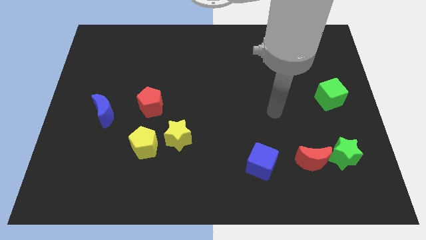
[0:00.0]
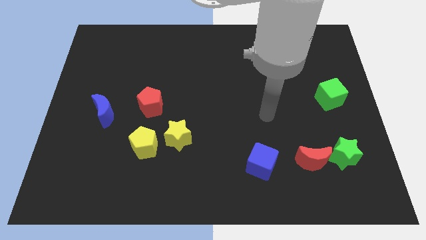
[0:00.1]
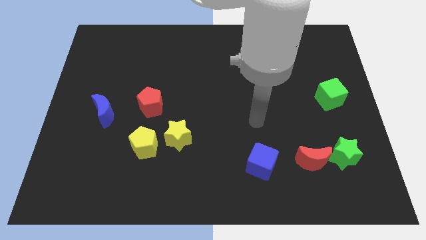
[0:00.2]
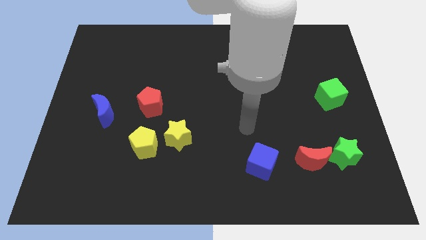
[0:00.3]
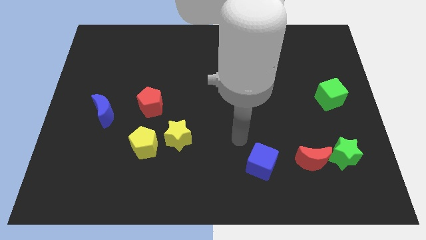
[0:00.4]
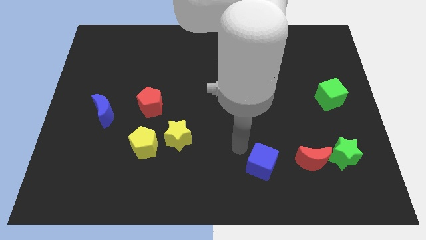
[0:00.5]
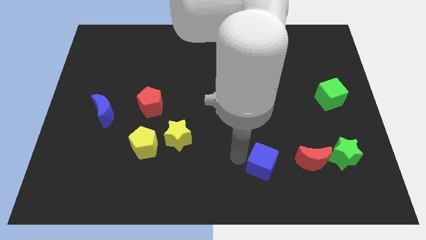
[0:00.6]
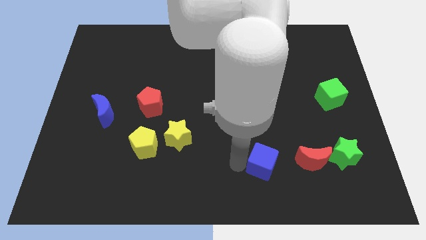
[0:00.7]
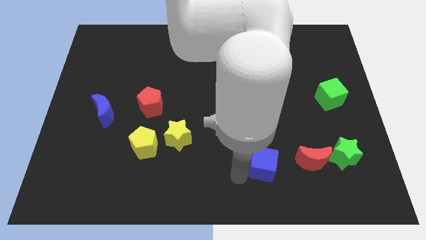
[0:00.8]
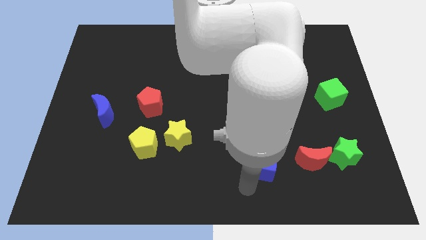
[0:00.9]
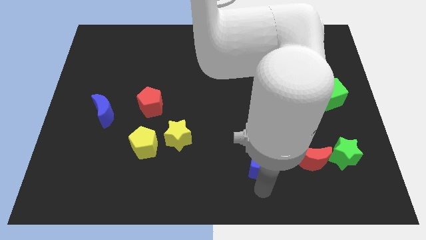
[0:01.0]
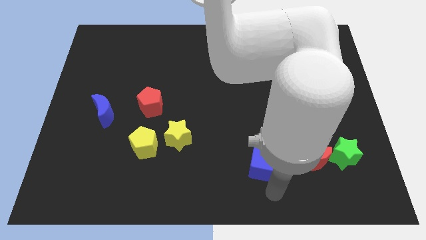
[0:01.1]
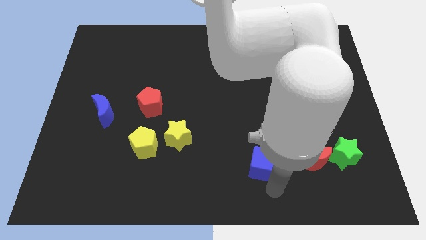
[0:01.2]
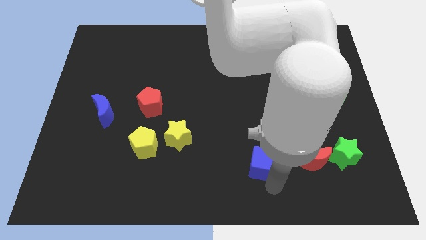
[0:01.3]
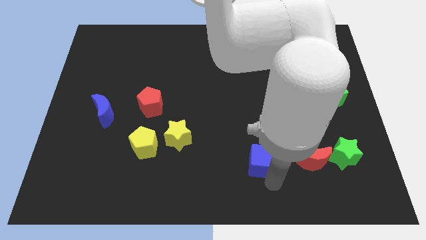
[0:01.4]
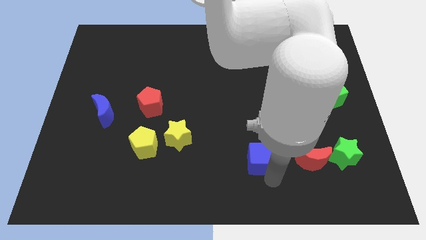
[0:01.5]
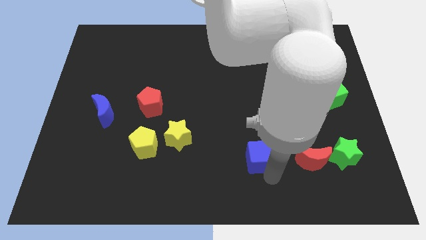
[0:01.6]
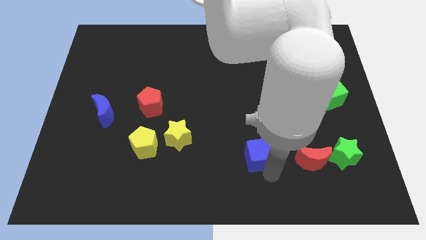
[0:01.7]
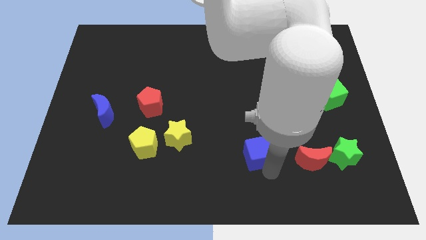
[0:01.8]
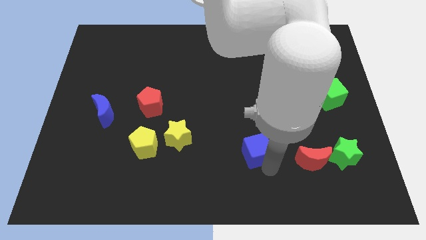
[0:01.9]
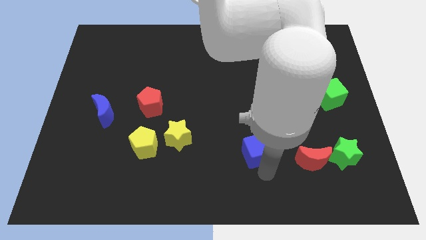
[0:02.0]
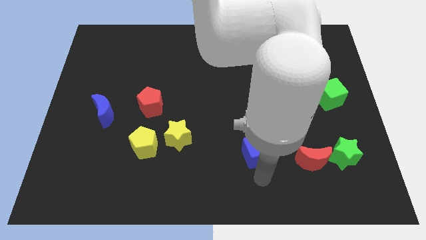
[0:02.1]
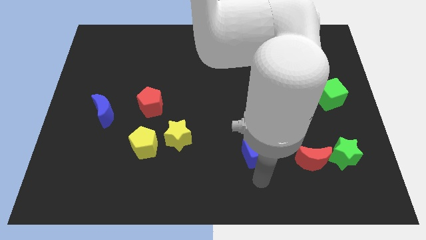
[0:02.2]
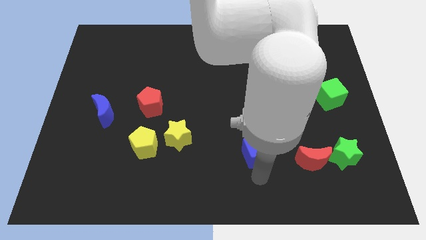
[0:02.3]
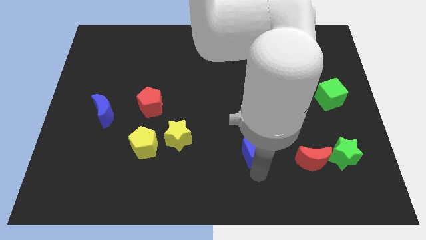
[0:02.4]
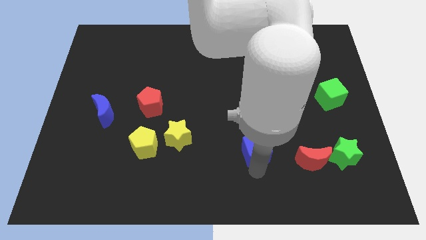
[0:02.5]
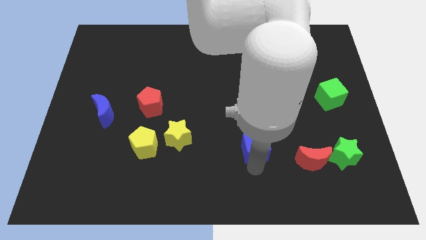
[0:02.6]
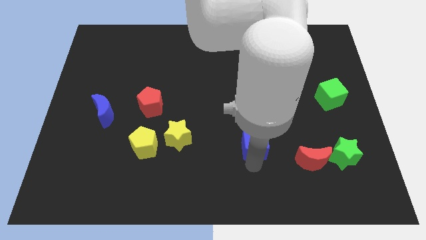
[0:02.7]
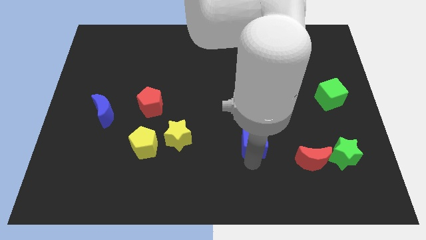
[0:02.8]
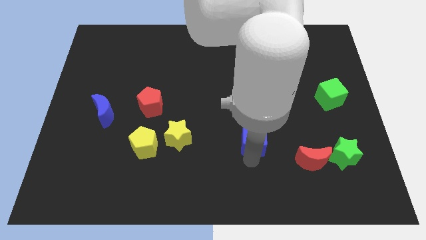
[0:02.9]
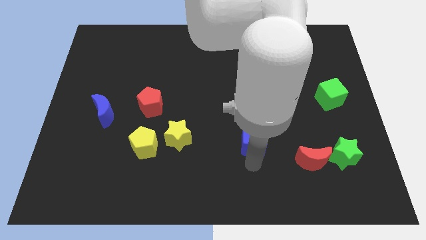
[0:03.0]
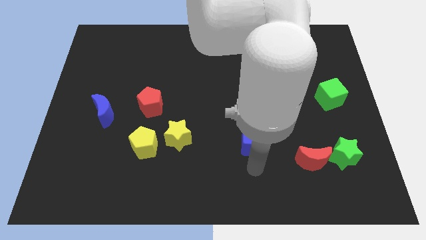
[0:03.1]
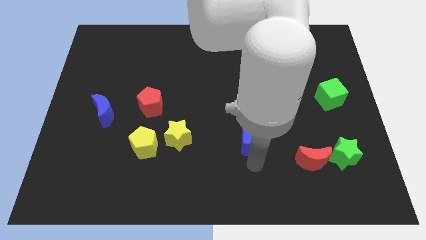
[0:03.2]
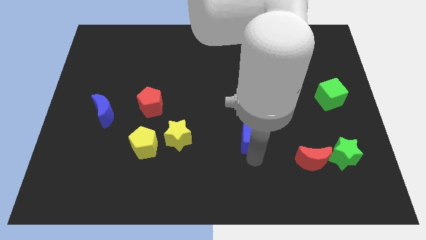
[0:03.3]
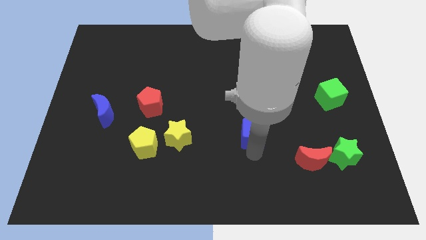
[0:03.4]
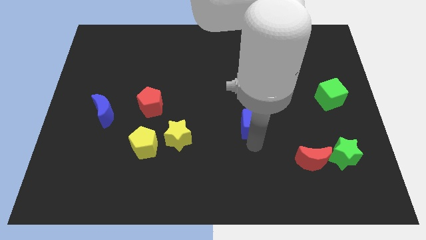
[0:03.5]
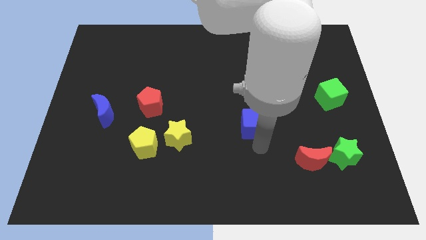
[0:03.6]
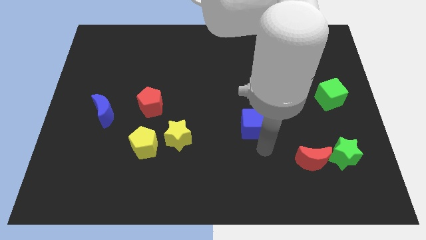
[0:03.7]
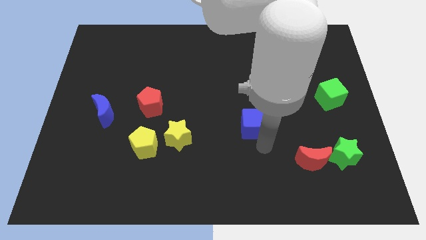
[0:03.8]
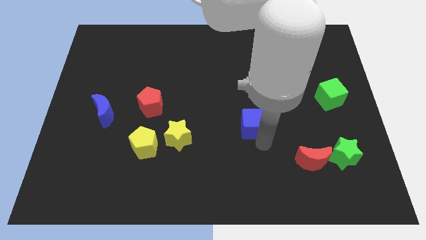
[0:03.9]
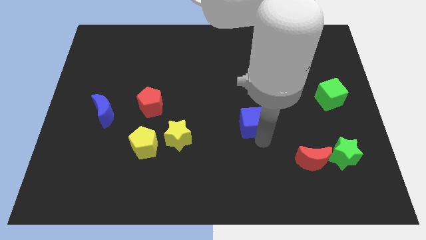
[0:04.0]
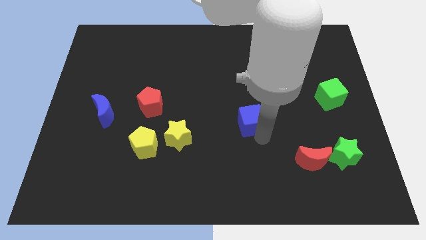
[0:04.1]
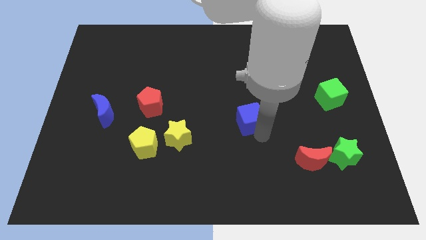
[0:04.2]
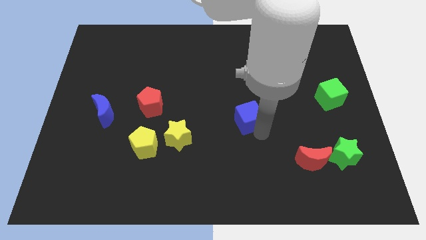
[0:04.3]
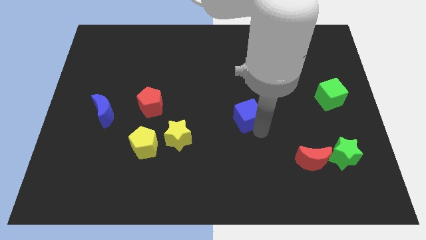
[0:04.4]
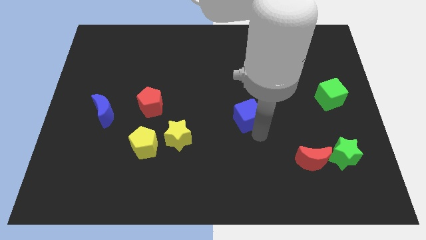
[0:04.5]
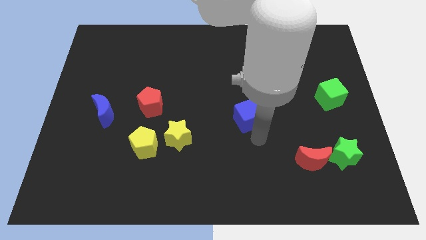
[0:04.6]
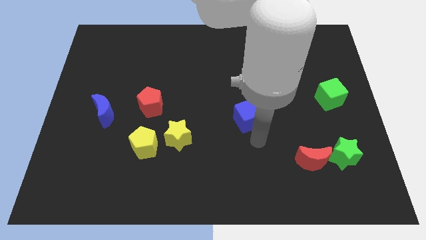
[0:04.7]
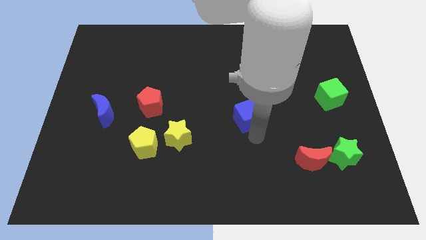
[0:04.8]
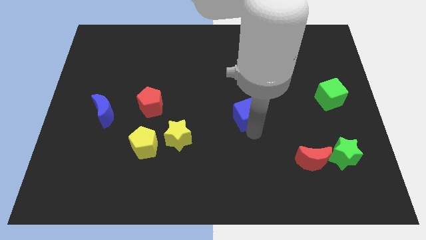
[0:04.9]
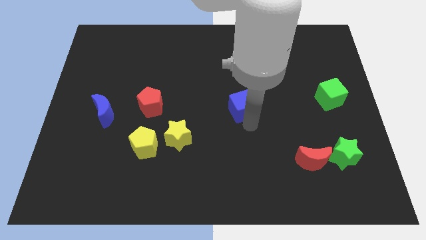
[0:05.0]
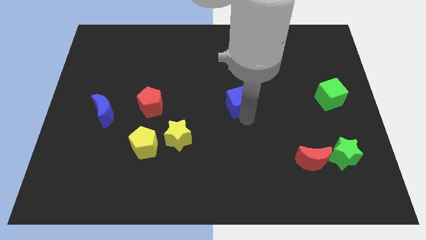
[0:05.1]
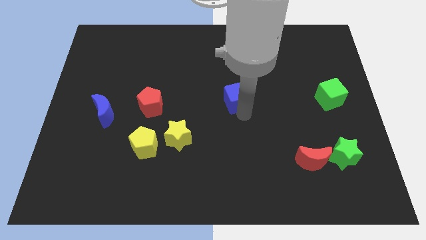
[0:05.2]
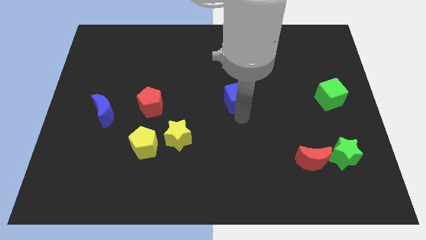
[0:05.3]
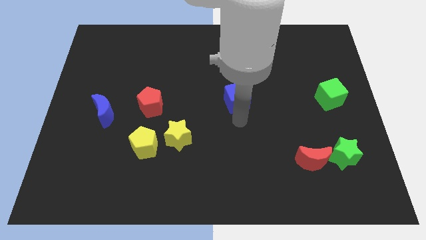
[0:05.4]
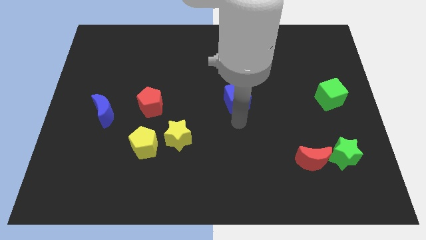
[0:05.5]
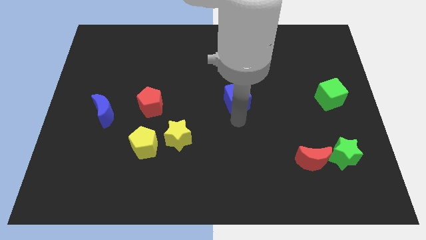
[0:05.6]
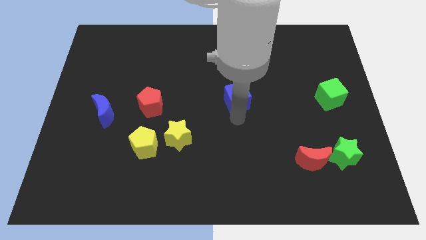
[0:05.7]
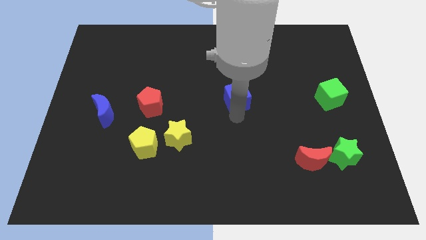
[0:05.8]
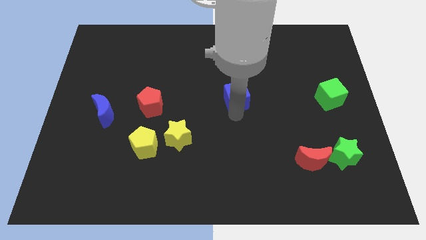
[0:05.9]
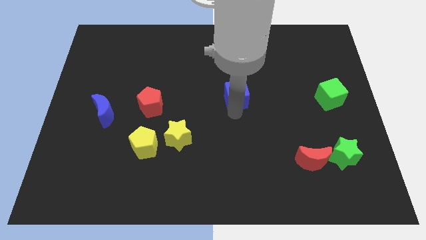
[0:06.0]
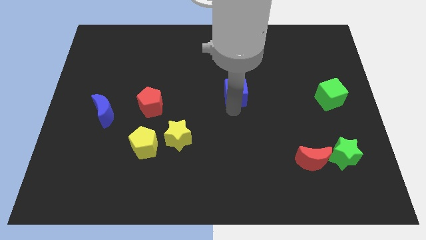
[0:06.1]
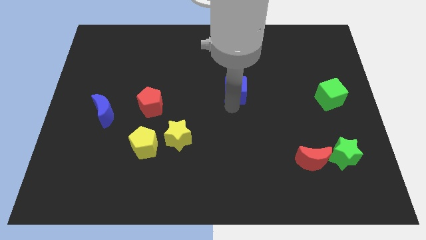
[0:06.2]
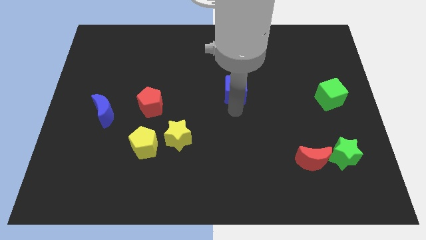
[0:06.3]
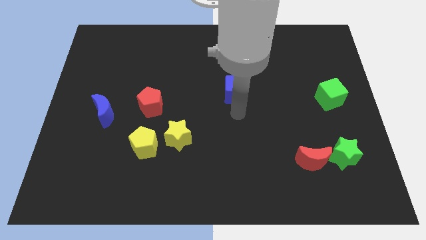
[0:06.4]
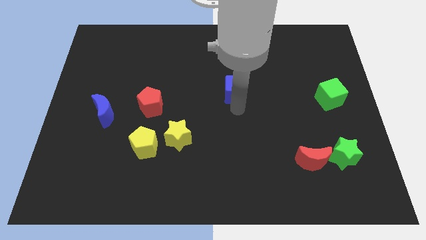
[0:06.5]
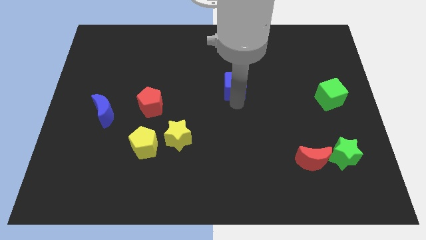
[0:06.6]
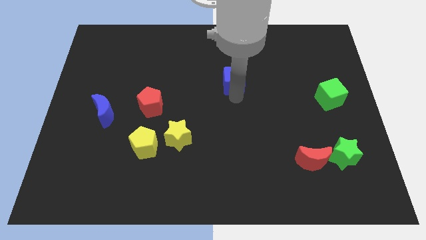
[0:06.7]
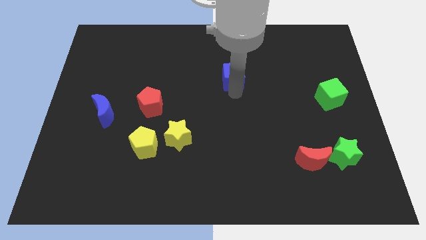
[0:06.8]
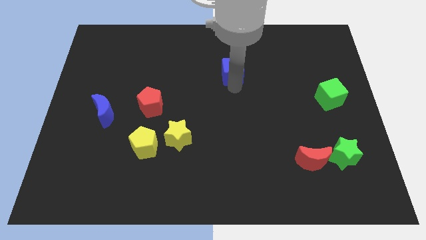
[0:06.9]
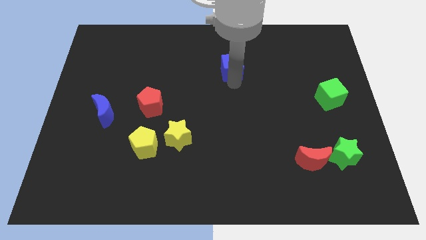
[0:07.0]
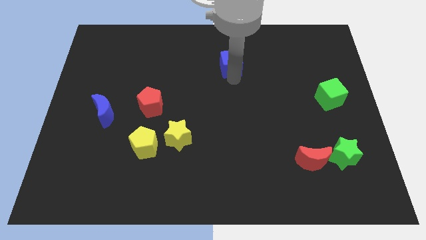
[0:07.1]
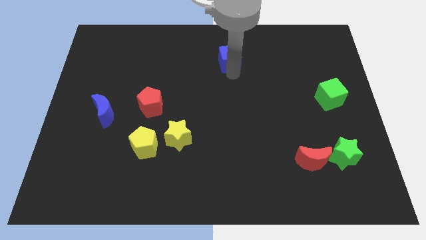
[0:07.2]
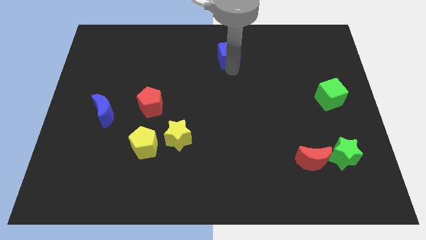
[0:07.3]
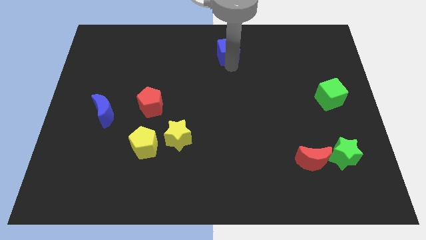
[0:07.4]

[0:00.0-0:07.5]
move the blue cube to the towards your base
